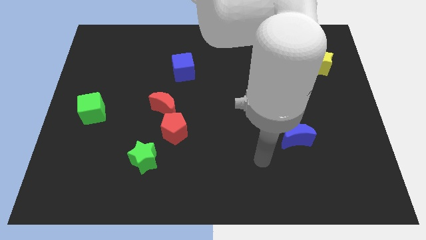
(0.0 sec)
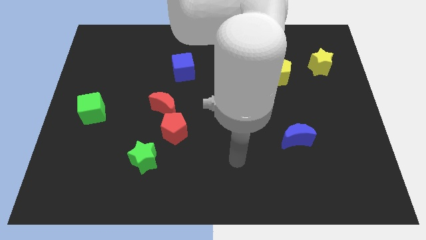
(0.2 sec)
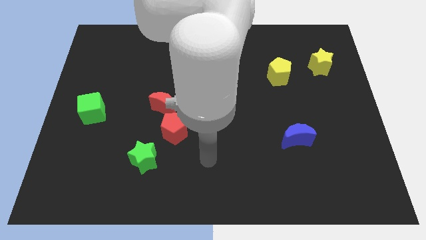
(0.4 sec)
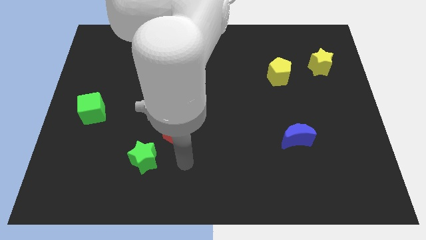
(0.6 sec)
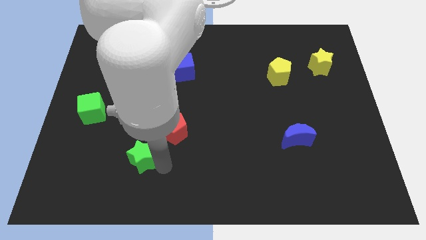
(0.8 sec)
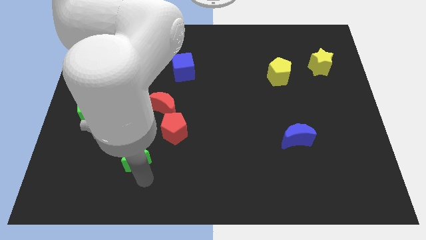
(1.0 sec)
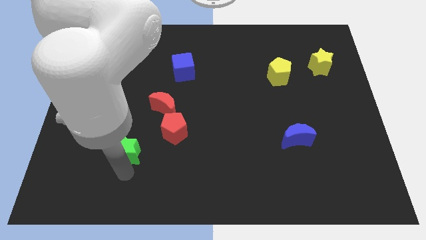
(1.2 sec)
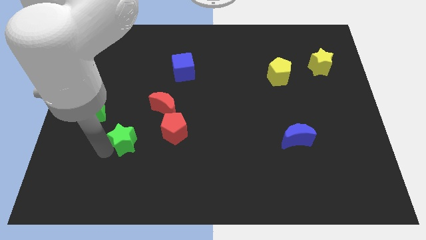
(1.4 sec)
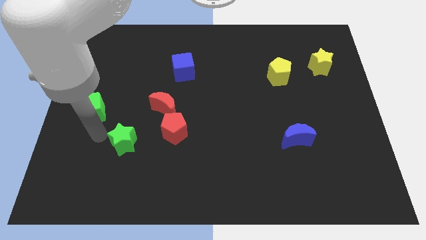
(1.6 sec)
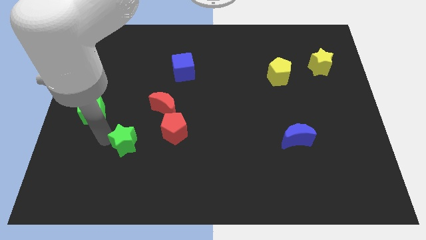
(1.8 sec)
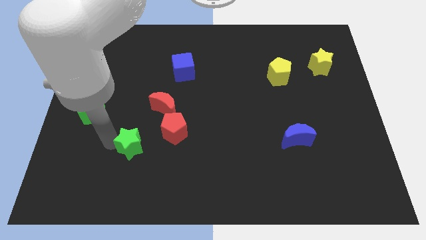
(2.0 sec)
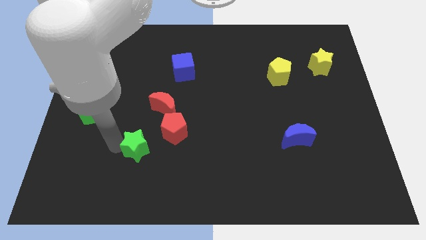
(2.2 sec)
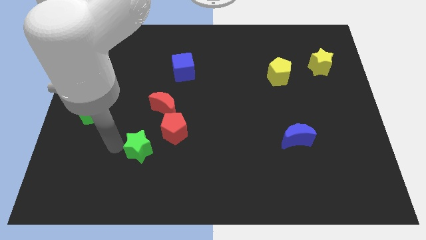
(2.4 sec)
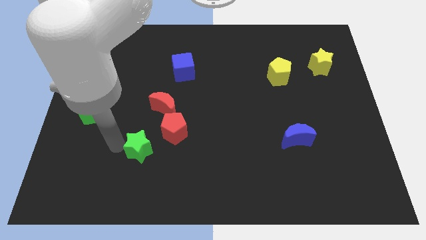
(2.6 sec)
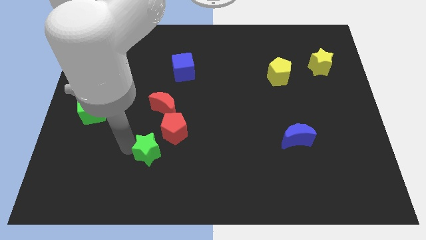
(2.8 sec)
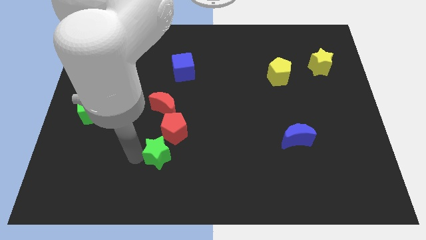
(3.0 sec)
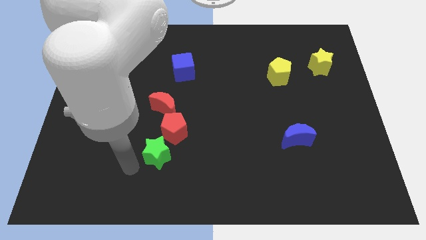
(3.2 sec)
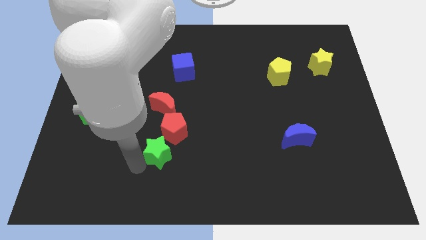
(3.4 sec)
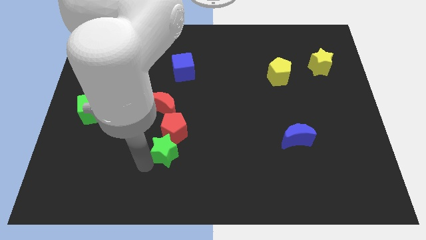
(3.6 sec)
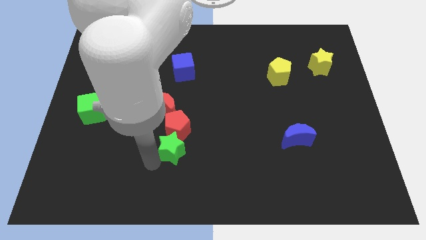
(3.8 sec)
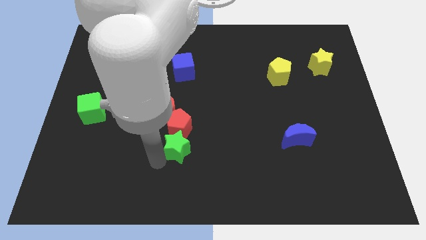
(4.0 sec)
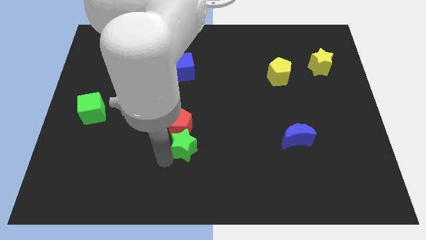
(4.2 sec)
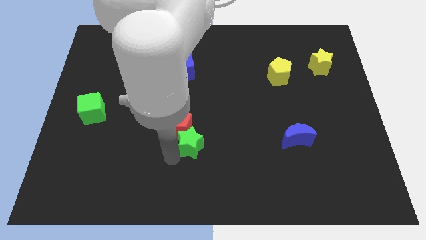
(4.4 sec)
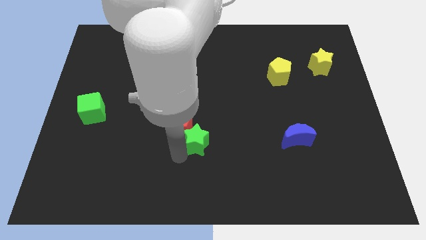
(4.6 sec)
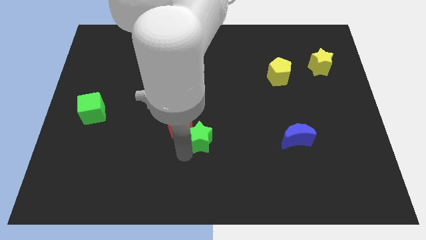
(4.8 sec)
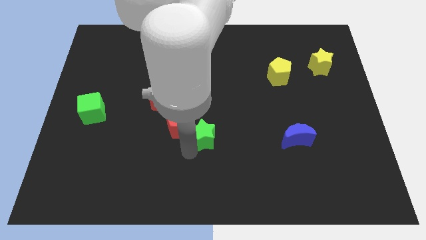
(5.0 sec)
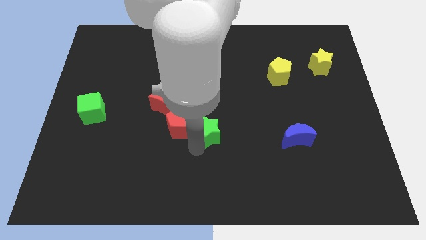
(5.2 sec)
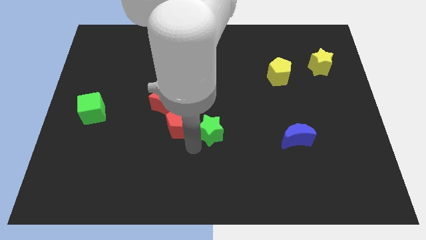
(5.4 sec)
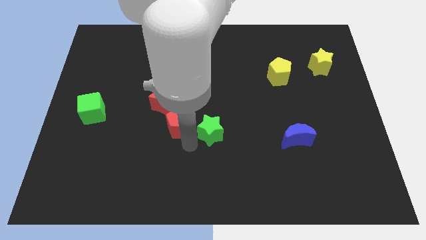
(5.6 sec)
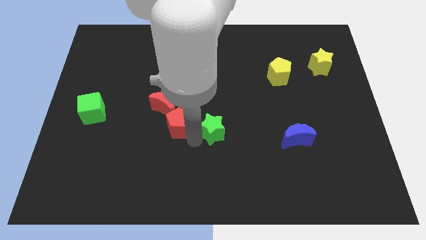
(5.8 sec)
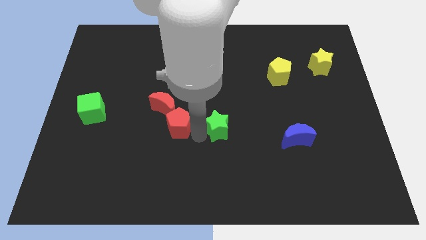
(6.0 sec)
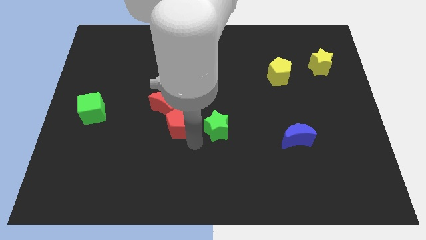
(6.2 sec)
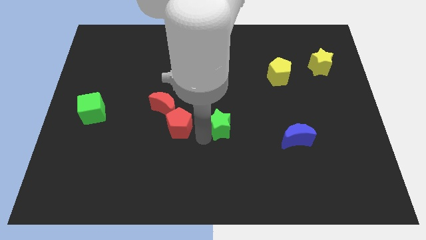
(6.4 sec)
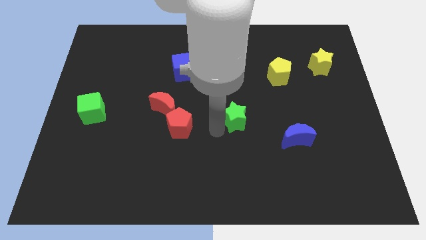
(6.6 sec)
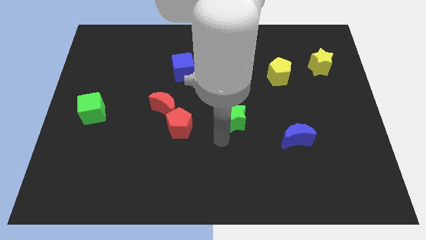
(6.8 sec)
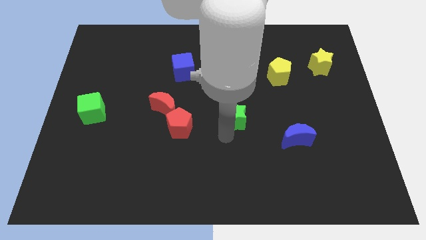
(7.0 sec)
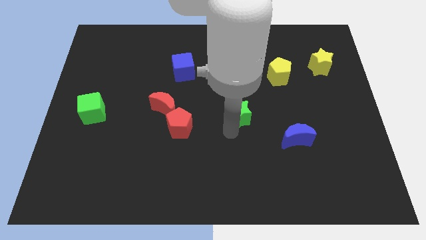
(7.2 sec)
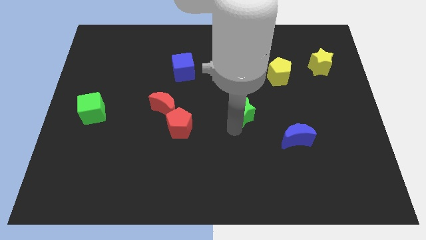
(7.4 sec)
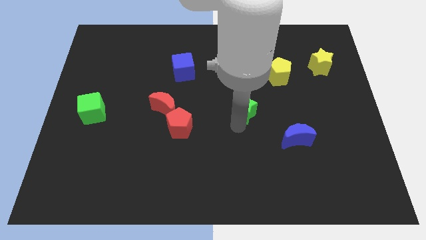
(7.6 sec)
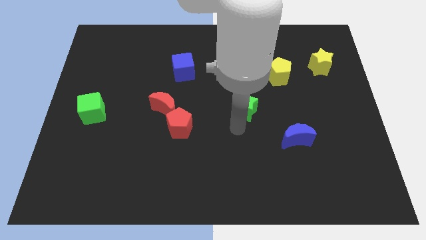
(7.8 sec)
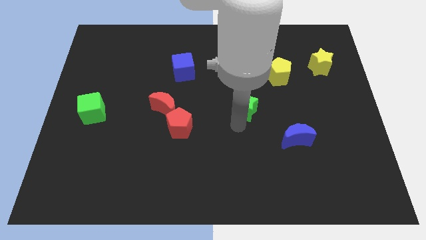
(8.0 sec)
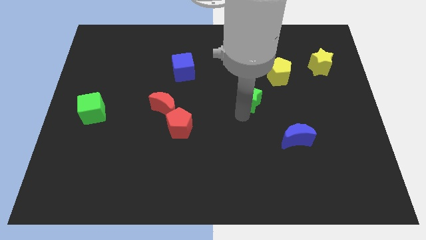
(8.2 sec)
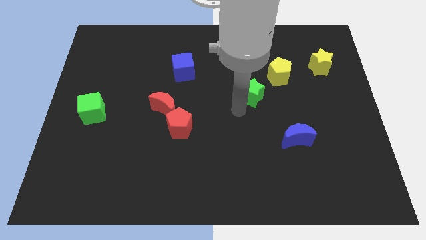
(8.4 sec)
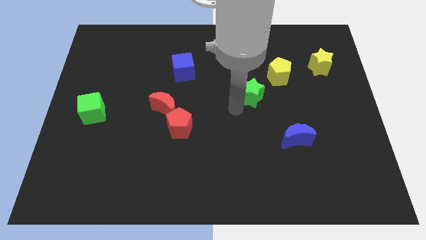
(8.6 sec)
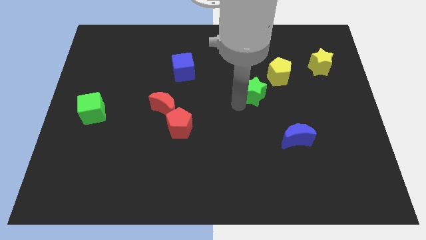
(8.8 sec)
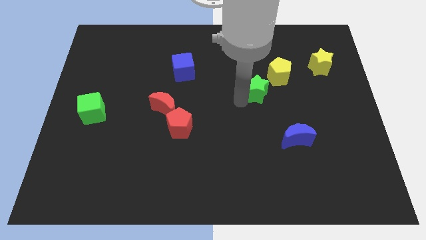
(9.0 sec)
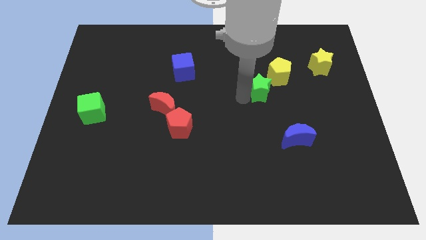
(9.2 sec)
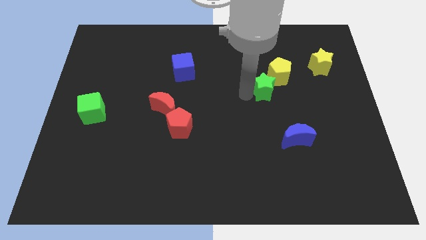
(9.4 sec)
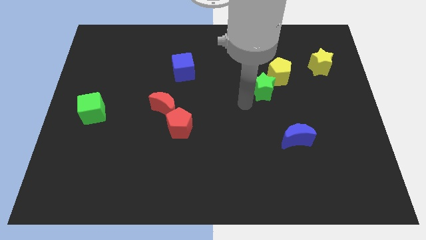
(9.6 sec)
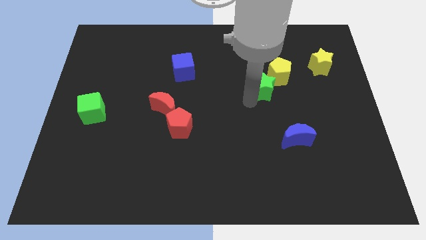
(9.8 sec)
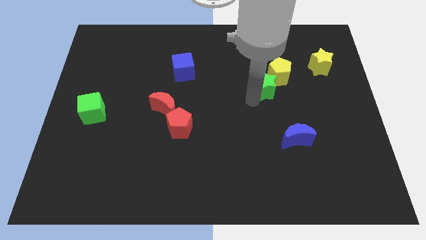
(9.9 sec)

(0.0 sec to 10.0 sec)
slide the green star towards the yellow pentagon

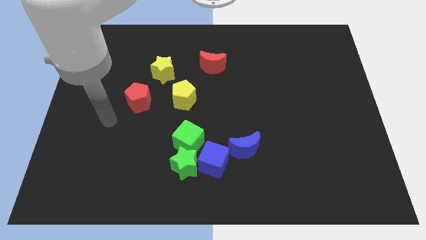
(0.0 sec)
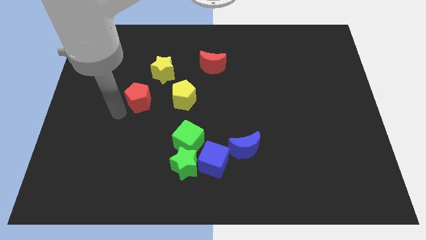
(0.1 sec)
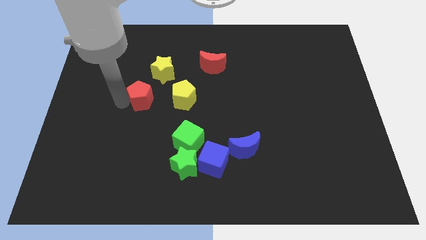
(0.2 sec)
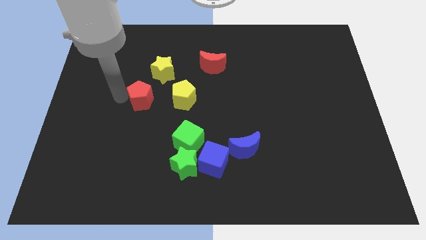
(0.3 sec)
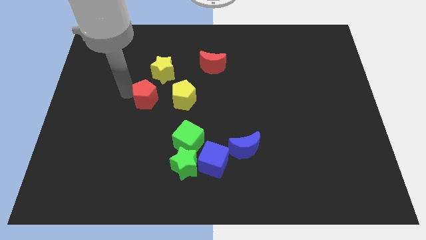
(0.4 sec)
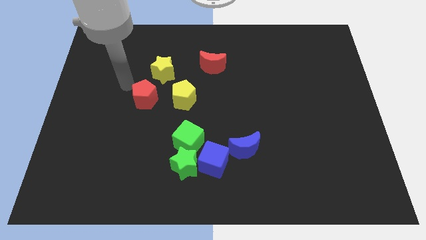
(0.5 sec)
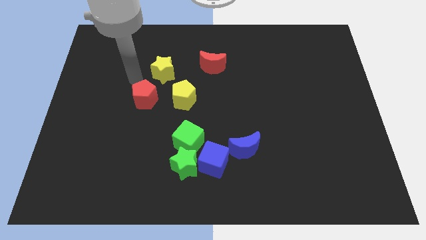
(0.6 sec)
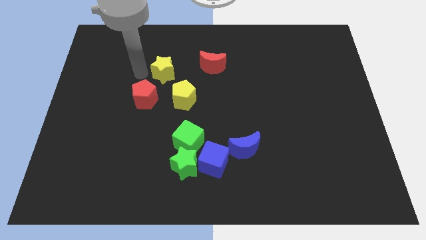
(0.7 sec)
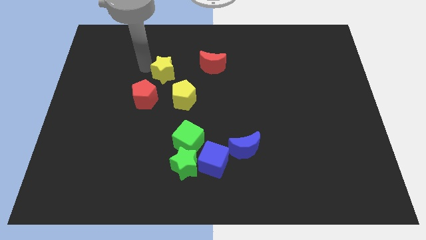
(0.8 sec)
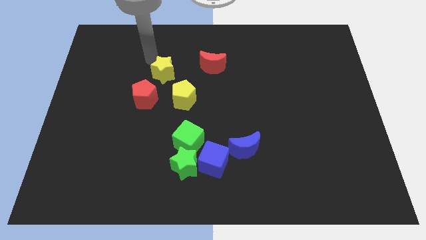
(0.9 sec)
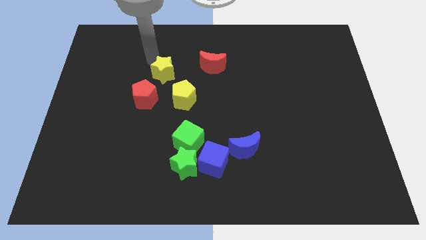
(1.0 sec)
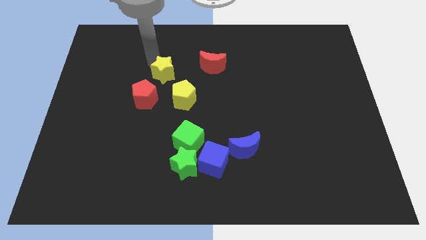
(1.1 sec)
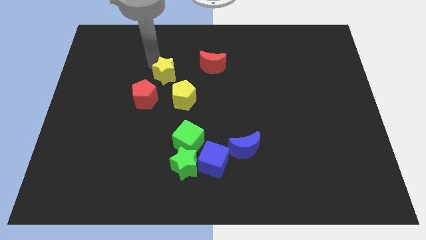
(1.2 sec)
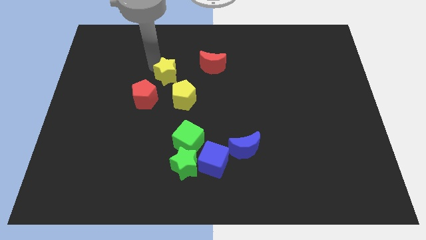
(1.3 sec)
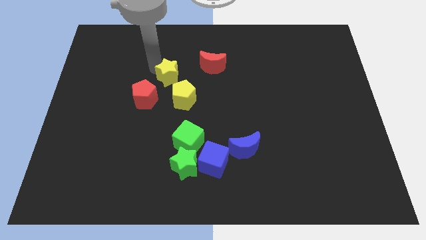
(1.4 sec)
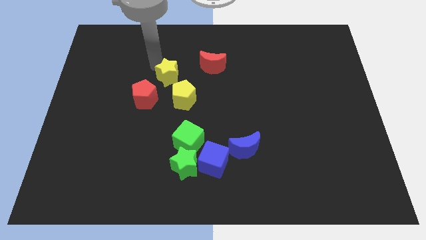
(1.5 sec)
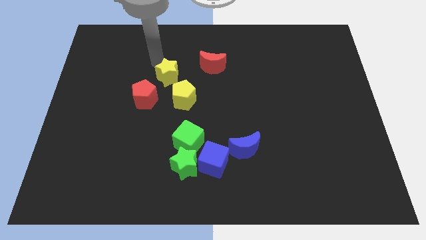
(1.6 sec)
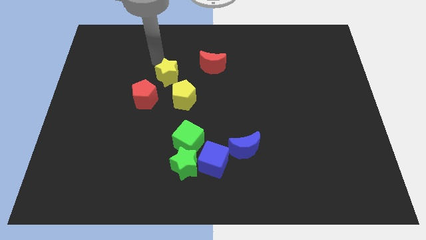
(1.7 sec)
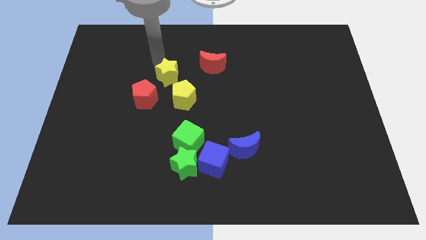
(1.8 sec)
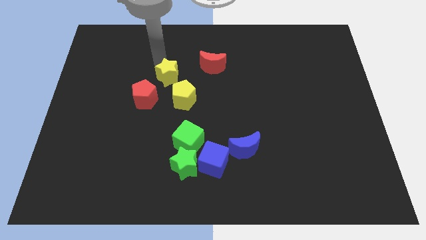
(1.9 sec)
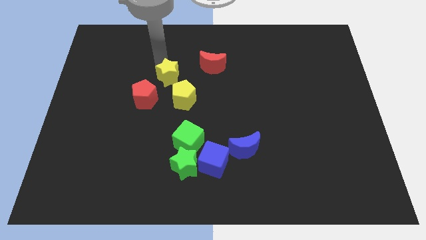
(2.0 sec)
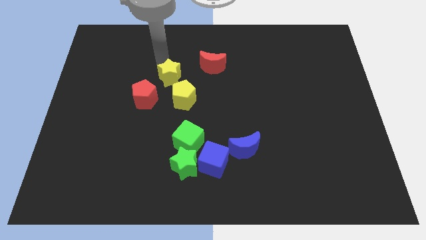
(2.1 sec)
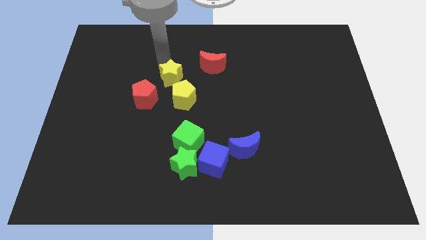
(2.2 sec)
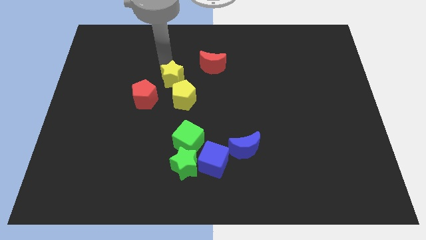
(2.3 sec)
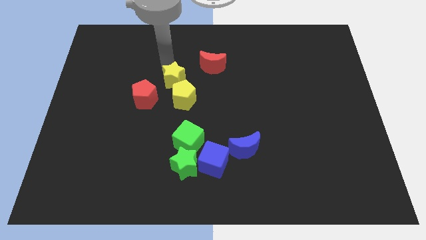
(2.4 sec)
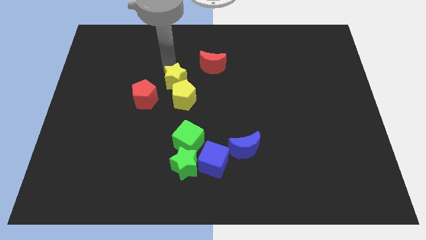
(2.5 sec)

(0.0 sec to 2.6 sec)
move the yellow star close to the yellow pentagon
